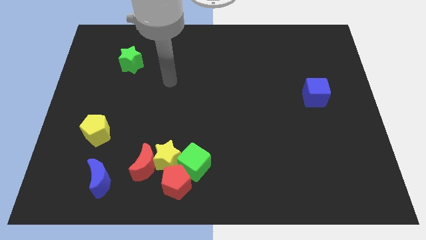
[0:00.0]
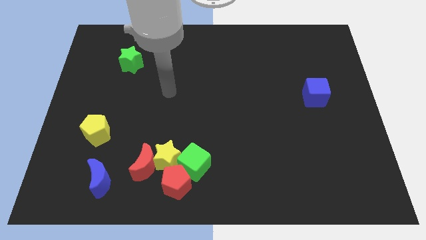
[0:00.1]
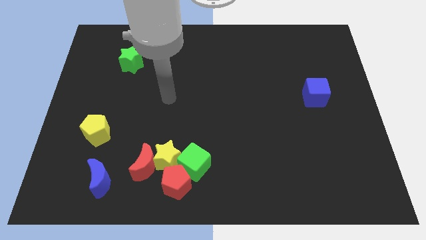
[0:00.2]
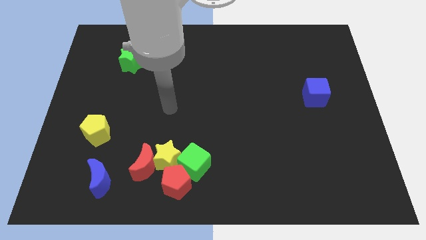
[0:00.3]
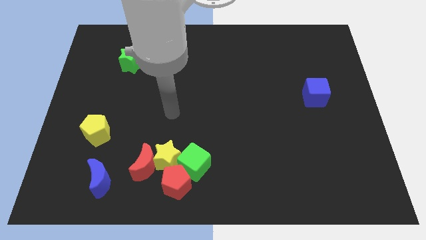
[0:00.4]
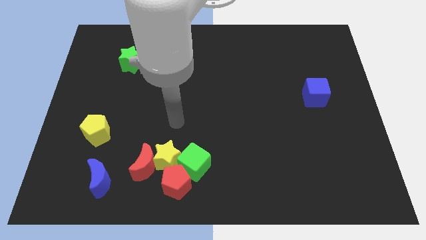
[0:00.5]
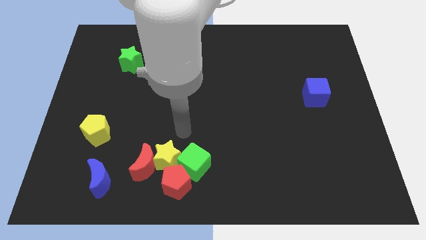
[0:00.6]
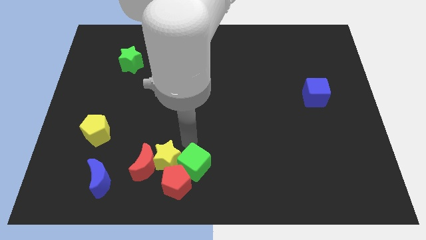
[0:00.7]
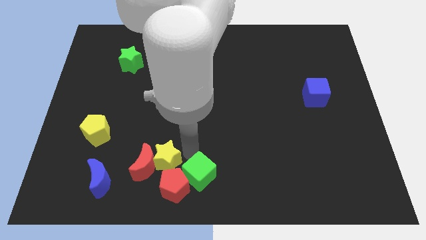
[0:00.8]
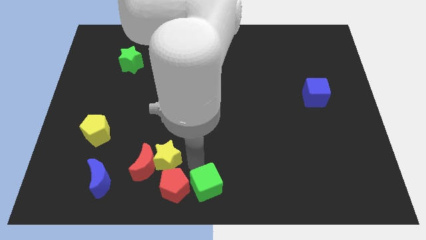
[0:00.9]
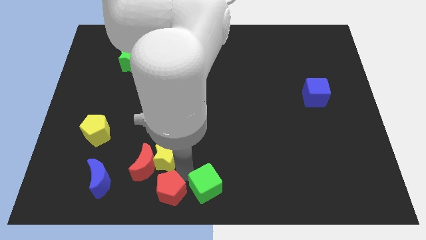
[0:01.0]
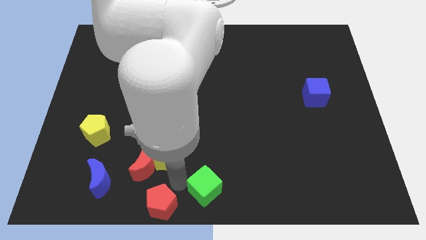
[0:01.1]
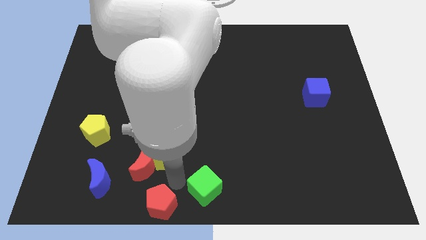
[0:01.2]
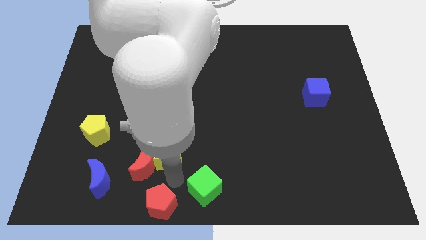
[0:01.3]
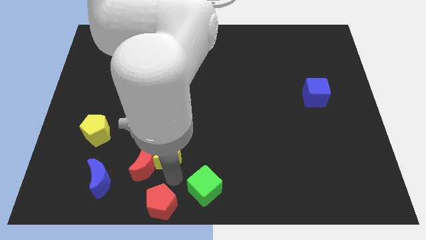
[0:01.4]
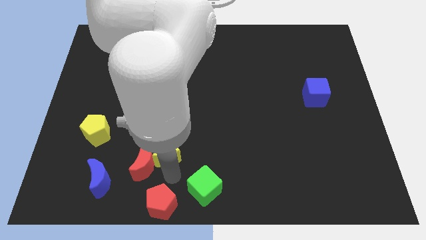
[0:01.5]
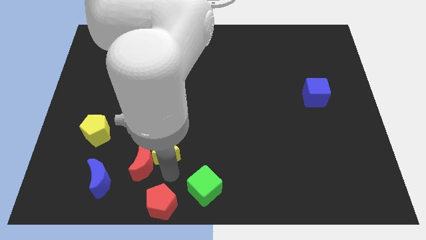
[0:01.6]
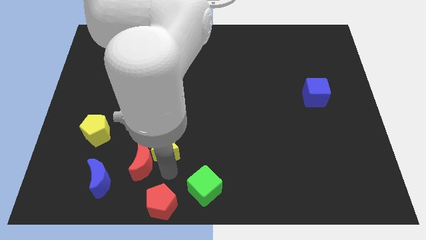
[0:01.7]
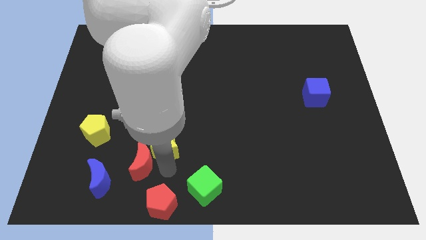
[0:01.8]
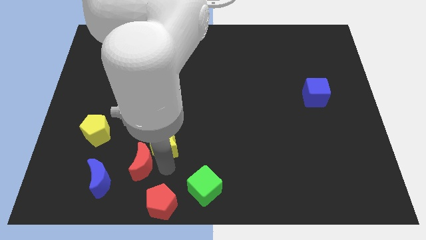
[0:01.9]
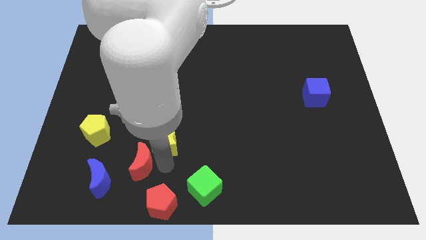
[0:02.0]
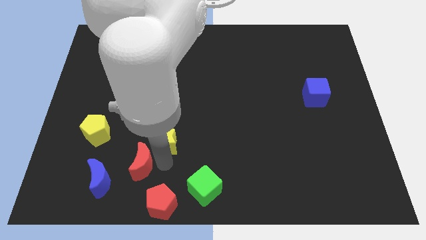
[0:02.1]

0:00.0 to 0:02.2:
move the yellow star away from the red moon, green cube, and red pentagon

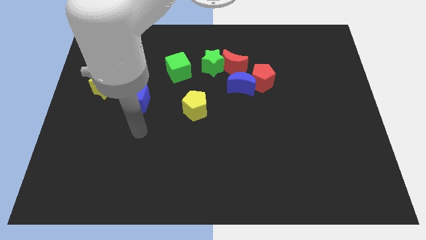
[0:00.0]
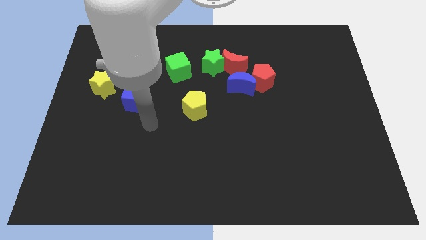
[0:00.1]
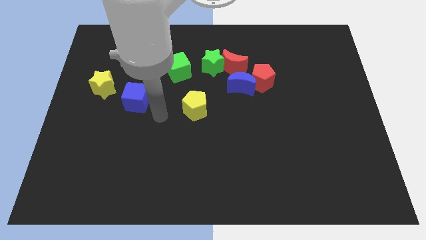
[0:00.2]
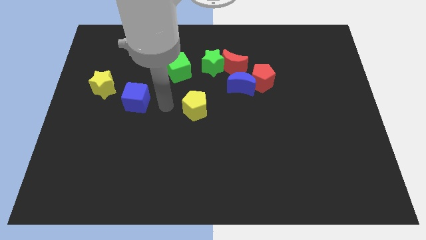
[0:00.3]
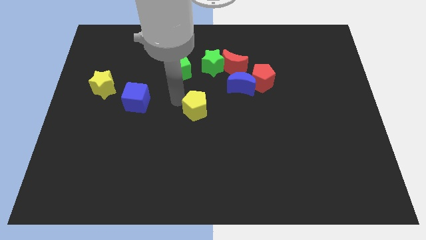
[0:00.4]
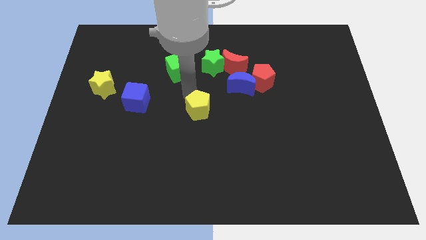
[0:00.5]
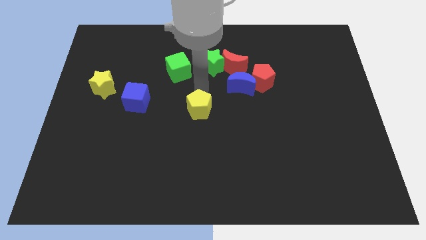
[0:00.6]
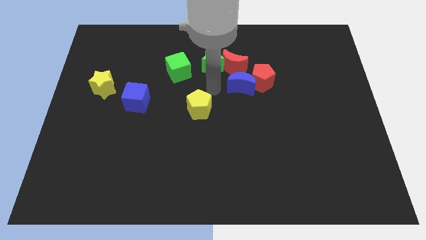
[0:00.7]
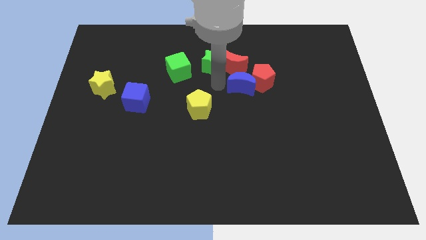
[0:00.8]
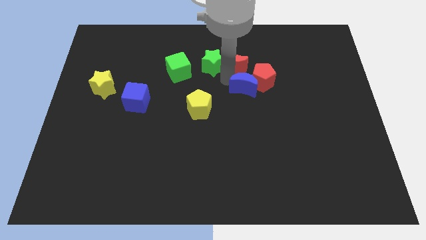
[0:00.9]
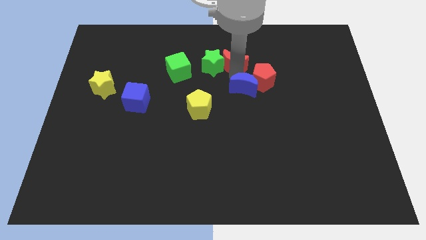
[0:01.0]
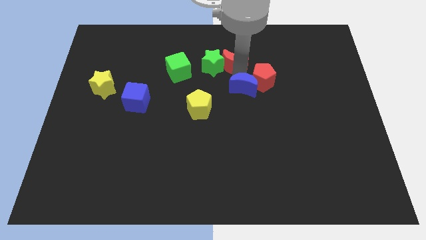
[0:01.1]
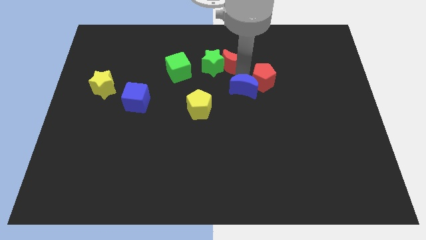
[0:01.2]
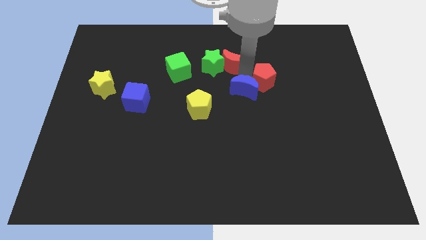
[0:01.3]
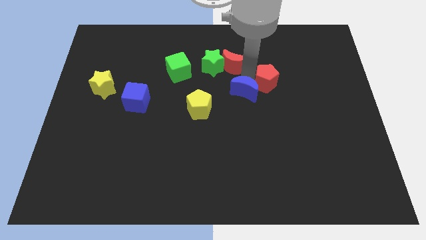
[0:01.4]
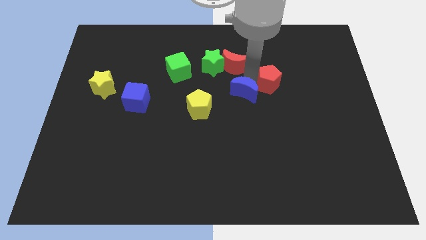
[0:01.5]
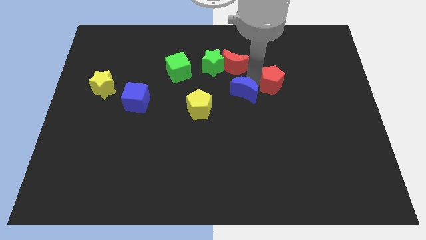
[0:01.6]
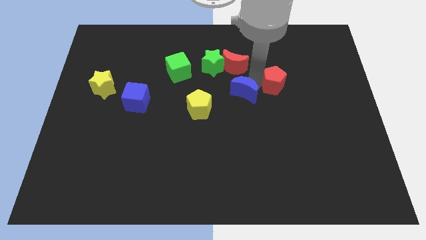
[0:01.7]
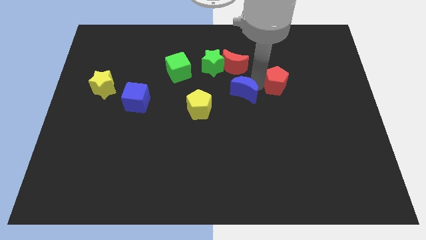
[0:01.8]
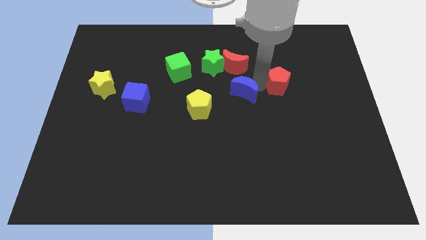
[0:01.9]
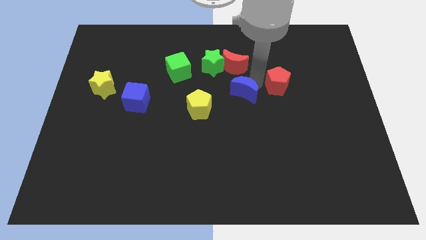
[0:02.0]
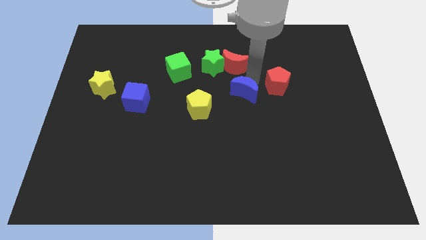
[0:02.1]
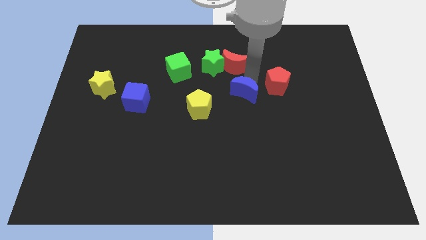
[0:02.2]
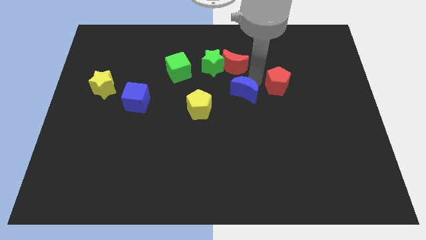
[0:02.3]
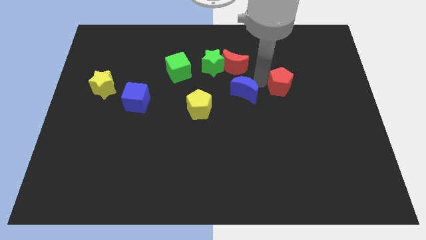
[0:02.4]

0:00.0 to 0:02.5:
separate the red pentagon from the blue moon and red moon

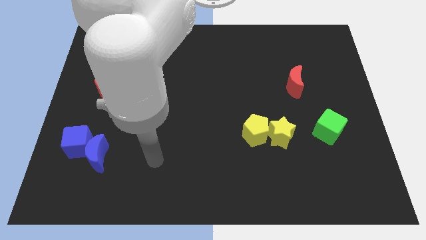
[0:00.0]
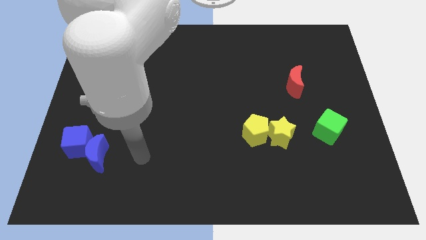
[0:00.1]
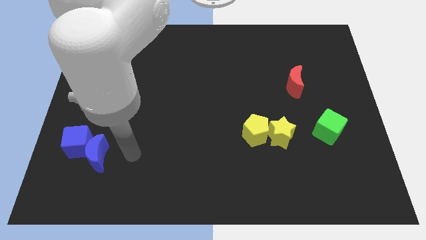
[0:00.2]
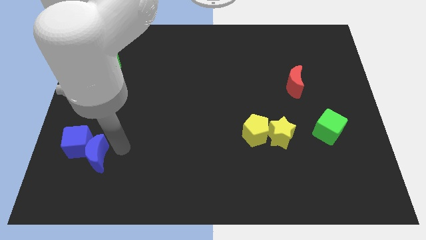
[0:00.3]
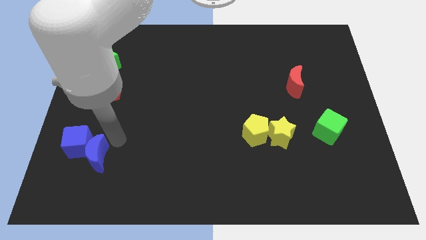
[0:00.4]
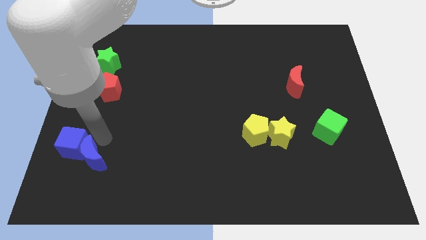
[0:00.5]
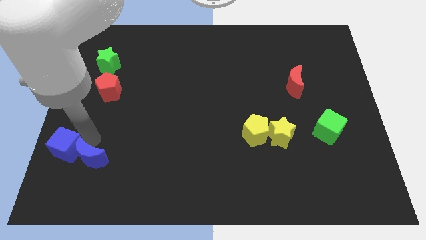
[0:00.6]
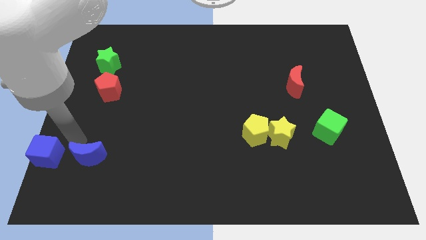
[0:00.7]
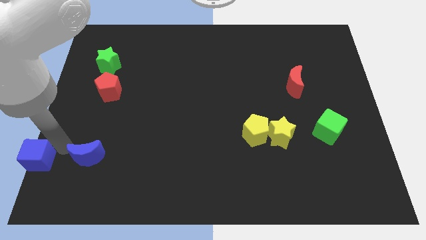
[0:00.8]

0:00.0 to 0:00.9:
move the blue moon away from the blue cube

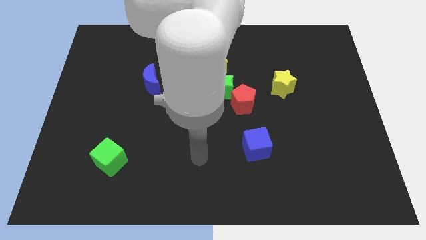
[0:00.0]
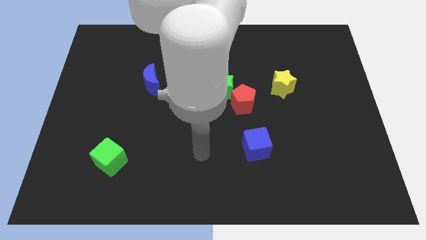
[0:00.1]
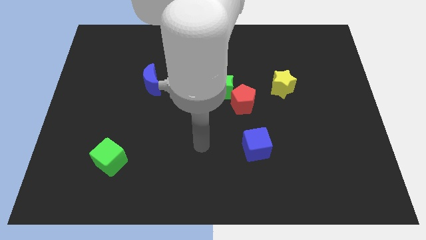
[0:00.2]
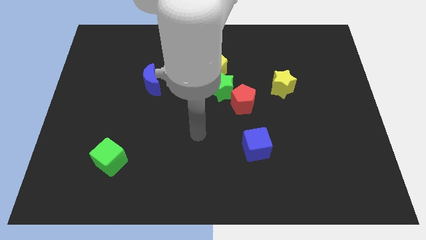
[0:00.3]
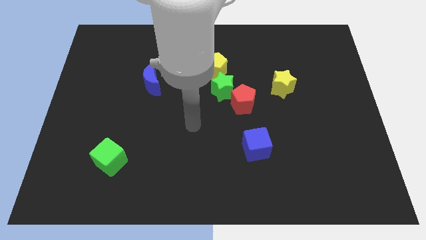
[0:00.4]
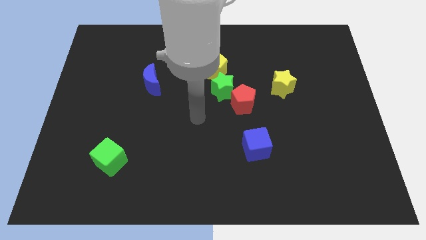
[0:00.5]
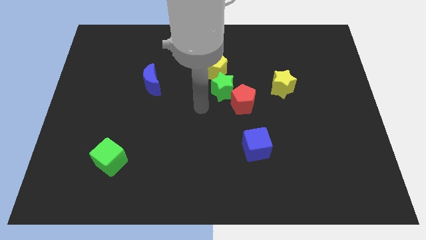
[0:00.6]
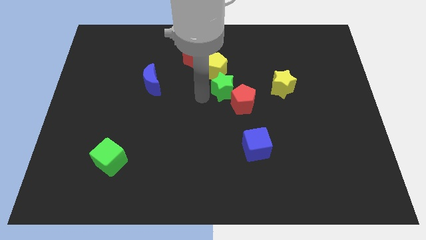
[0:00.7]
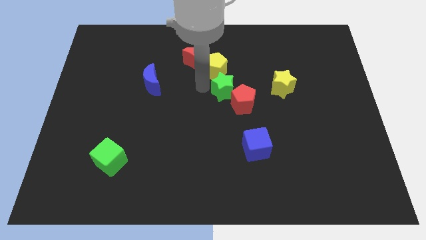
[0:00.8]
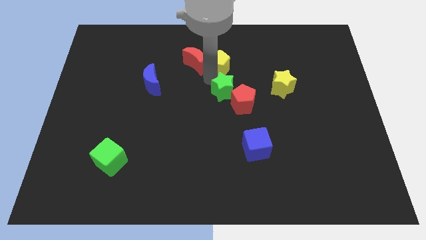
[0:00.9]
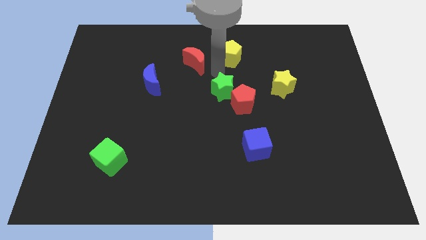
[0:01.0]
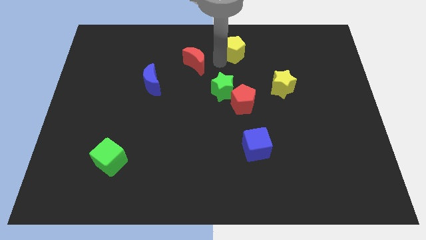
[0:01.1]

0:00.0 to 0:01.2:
move the red moon away from the yellow pentagon

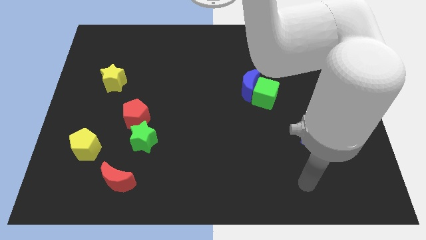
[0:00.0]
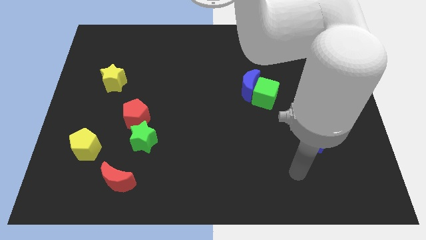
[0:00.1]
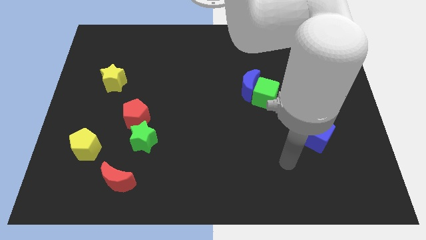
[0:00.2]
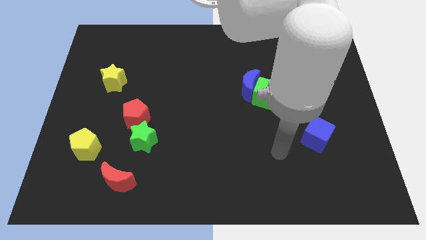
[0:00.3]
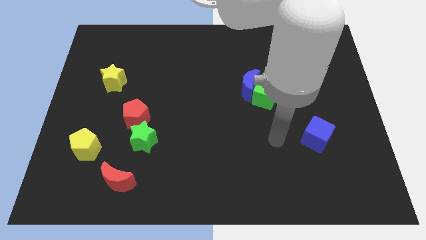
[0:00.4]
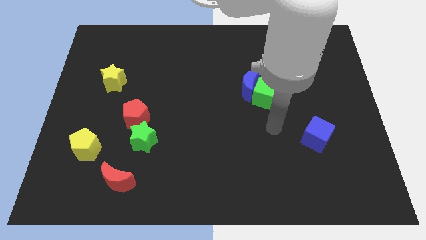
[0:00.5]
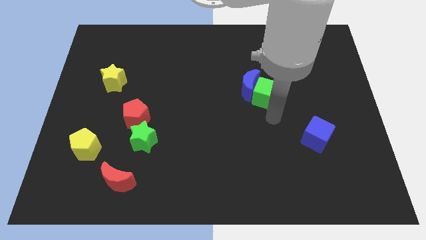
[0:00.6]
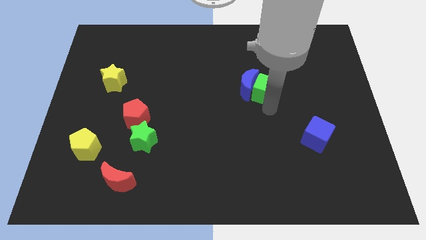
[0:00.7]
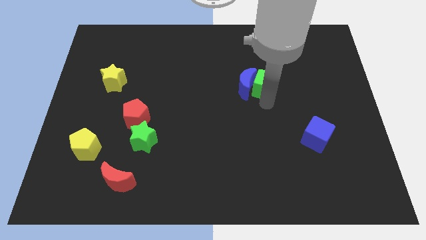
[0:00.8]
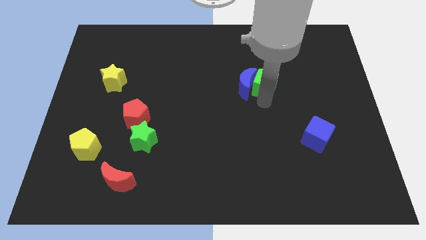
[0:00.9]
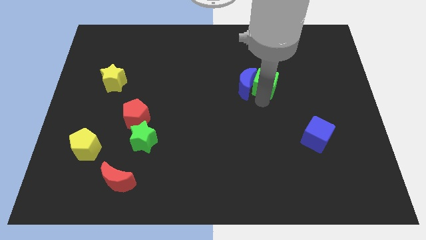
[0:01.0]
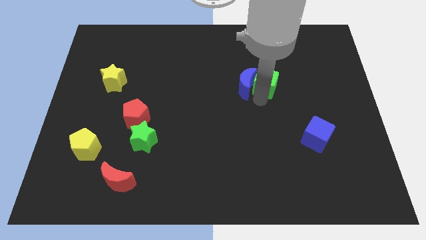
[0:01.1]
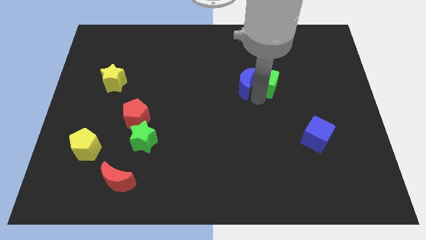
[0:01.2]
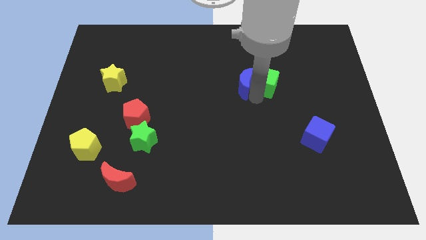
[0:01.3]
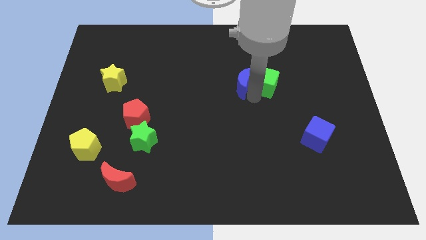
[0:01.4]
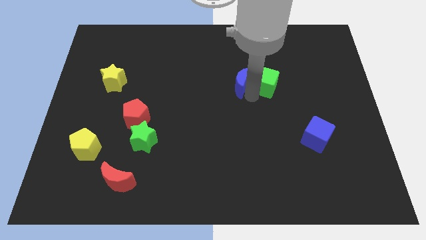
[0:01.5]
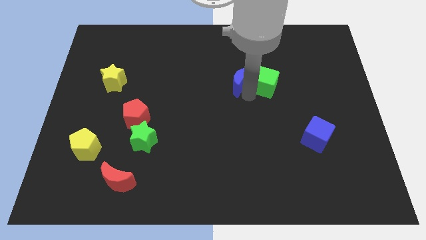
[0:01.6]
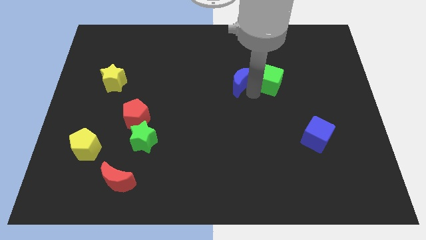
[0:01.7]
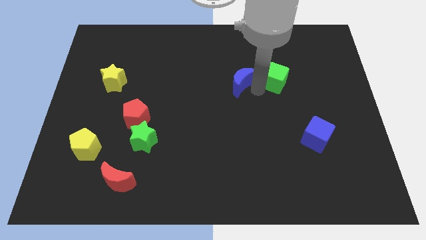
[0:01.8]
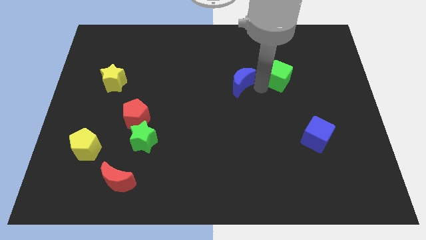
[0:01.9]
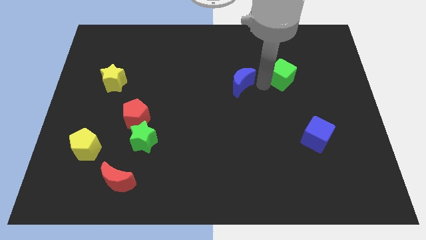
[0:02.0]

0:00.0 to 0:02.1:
separate the blue moon from the green cube

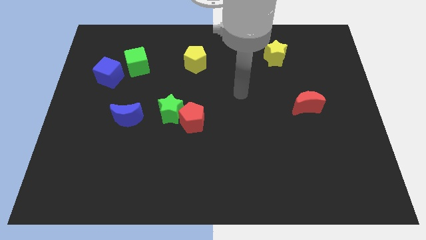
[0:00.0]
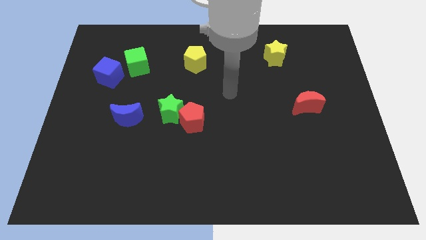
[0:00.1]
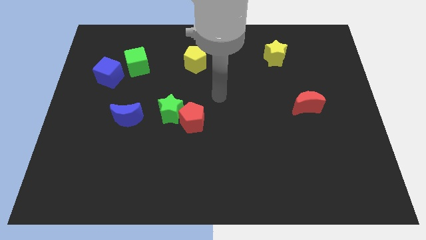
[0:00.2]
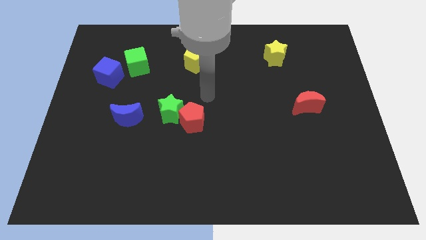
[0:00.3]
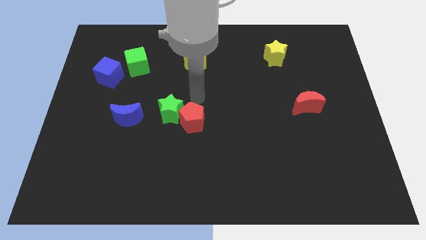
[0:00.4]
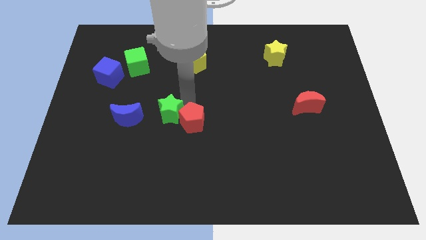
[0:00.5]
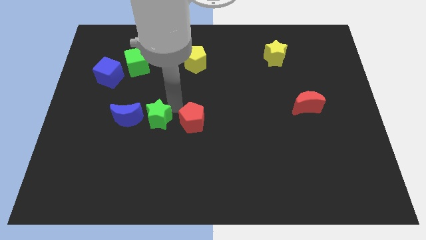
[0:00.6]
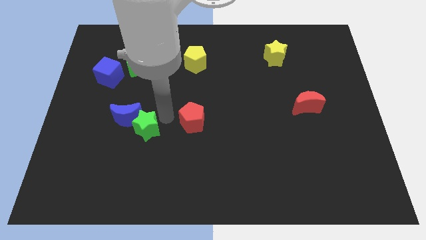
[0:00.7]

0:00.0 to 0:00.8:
separate the red pentagon from the green star
